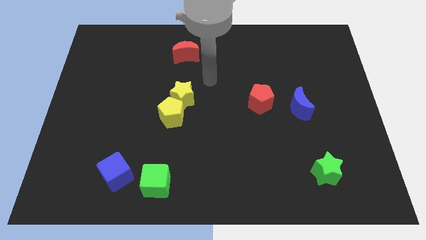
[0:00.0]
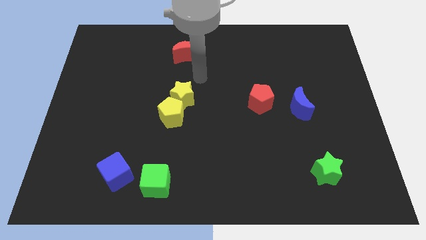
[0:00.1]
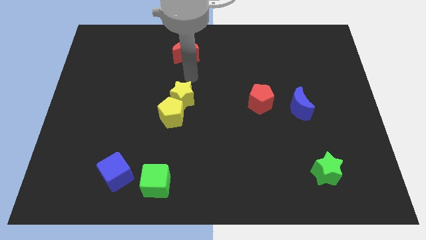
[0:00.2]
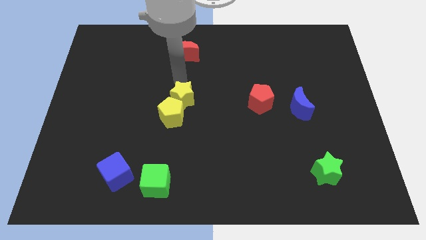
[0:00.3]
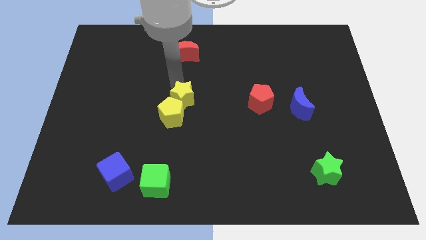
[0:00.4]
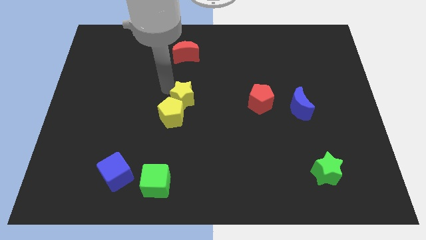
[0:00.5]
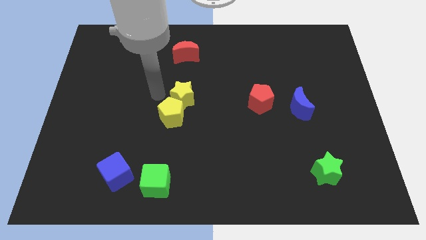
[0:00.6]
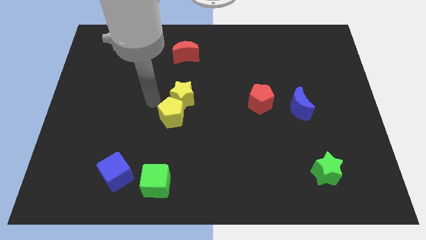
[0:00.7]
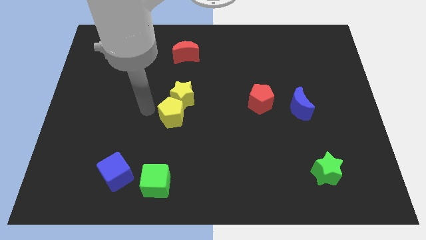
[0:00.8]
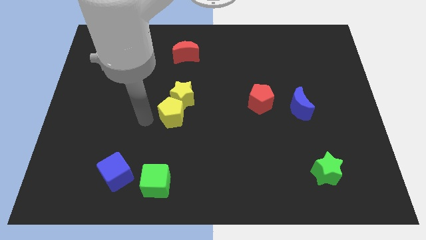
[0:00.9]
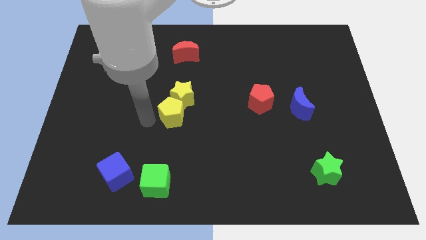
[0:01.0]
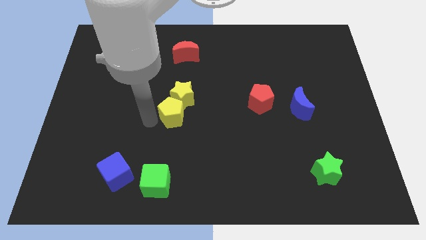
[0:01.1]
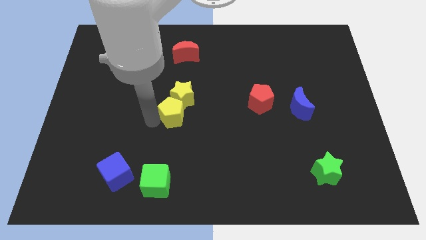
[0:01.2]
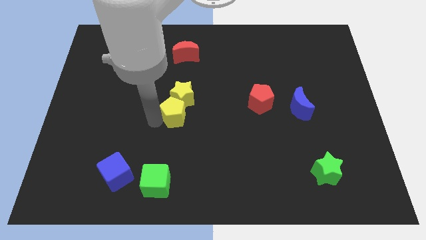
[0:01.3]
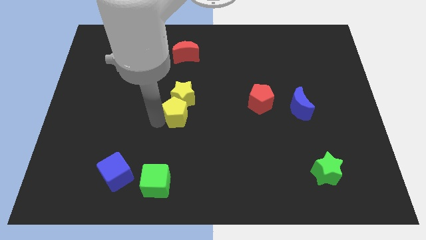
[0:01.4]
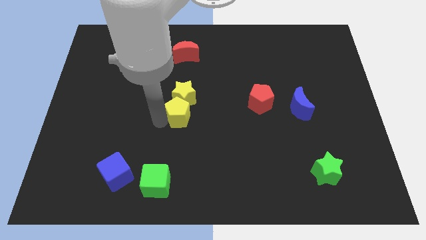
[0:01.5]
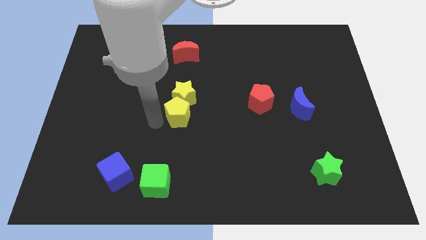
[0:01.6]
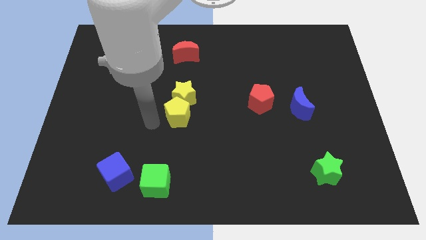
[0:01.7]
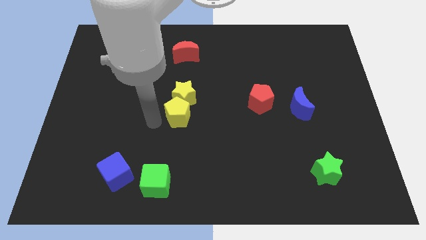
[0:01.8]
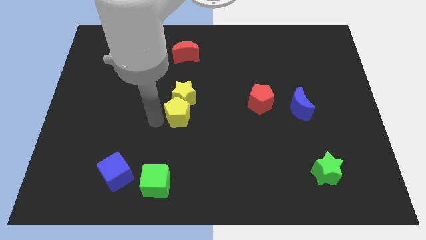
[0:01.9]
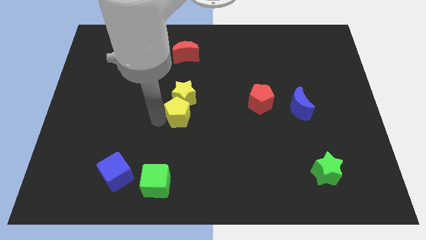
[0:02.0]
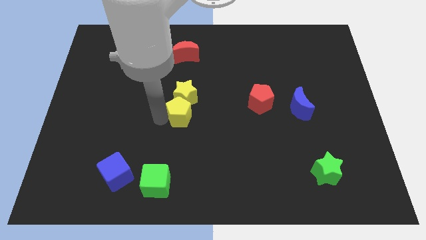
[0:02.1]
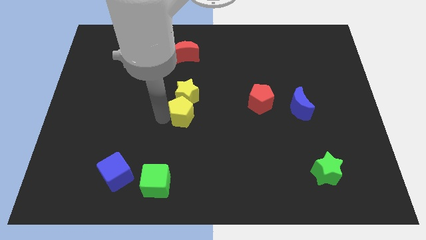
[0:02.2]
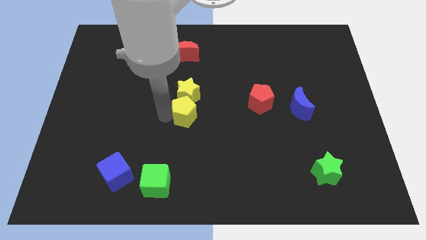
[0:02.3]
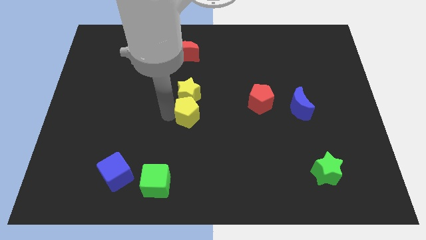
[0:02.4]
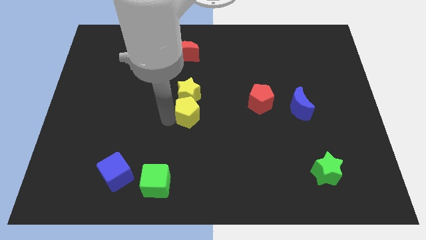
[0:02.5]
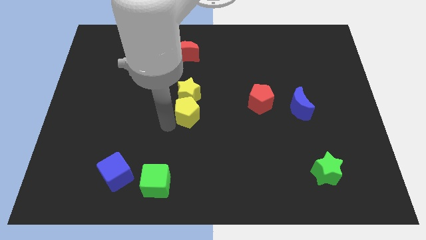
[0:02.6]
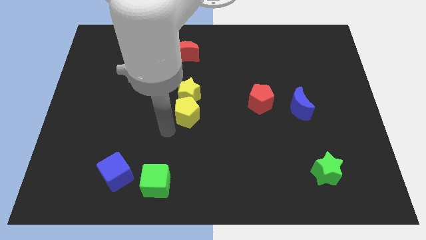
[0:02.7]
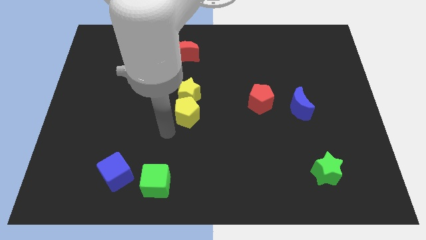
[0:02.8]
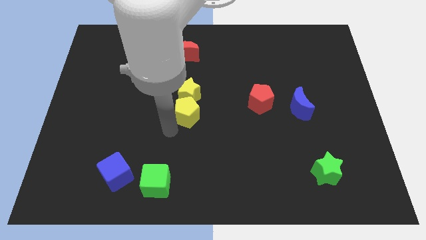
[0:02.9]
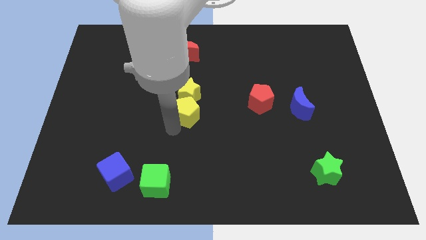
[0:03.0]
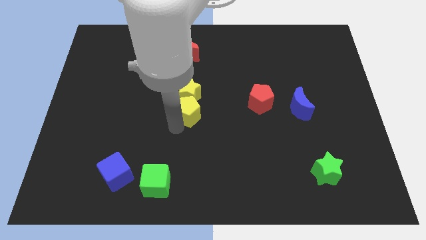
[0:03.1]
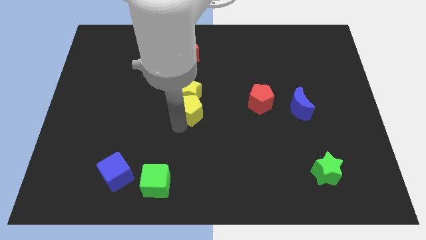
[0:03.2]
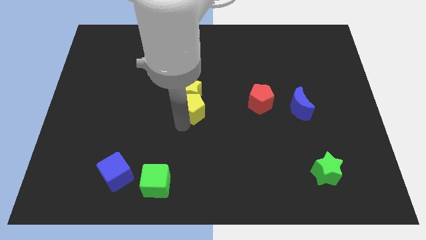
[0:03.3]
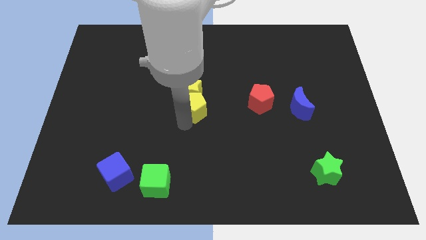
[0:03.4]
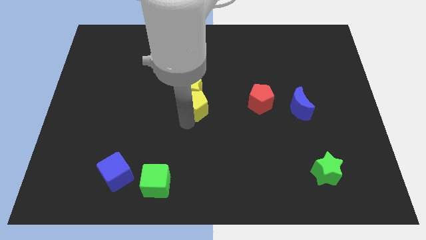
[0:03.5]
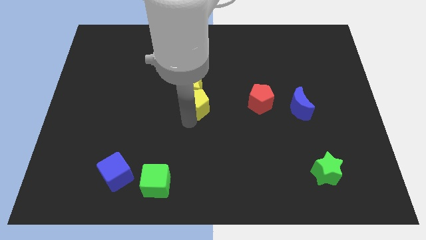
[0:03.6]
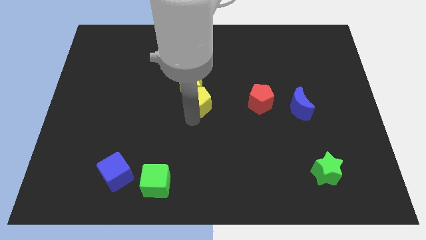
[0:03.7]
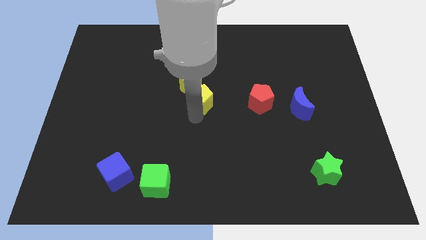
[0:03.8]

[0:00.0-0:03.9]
move the yellow pentagon diagonally up and to the right a bit

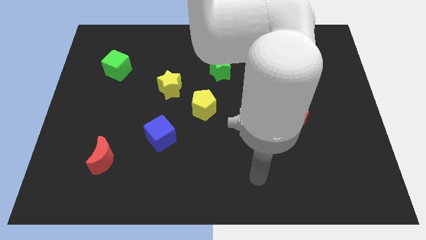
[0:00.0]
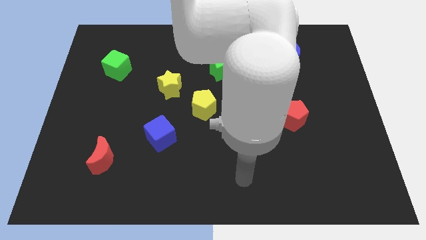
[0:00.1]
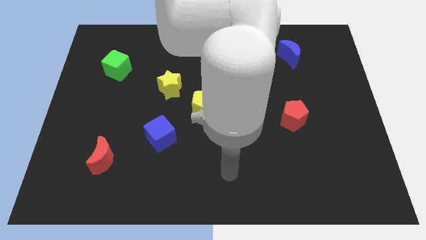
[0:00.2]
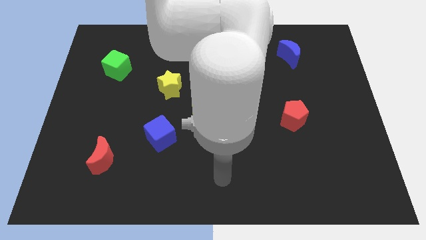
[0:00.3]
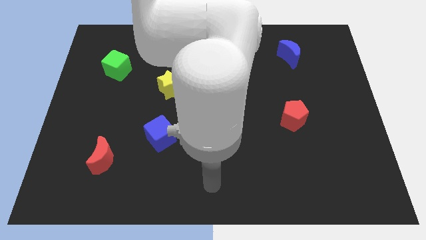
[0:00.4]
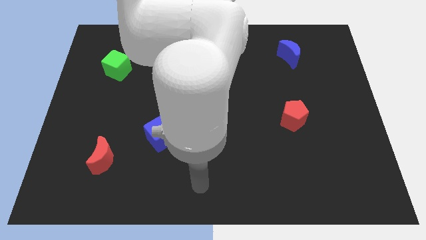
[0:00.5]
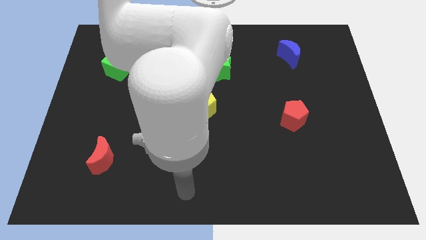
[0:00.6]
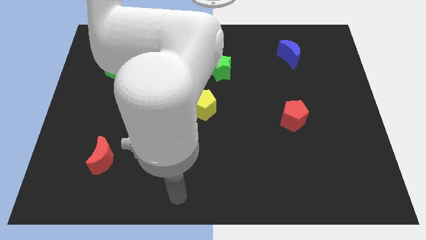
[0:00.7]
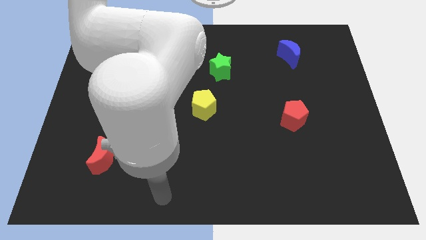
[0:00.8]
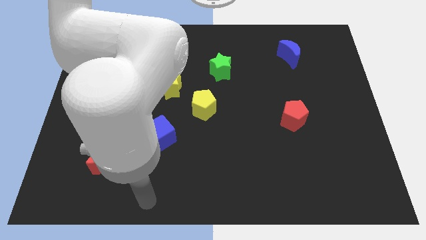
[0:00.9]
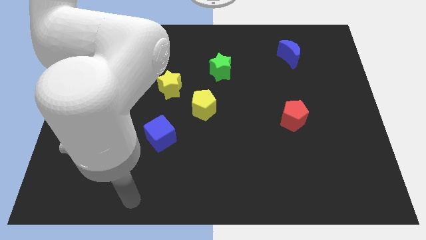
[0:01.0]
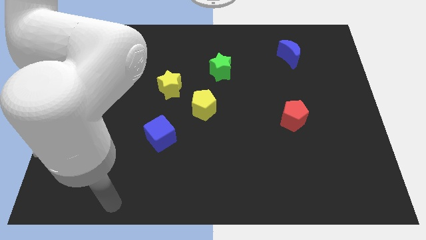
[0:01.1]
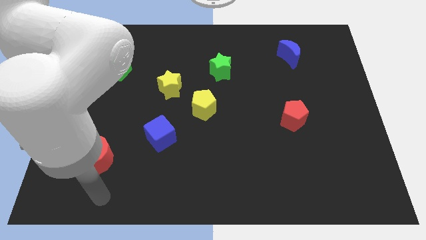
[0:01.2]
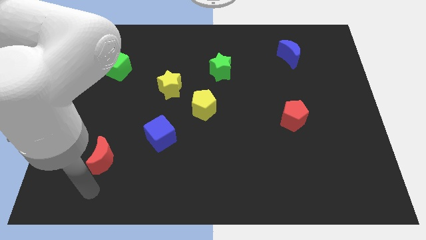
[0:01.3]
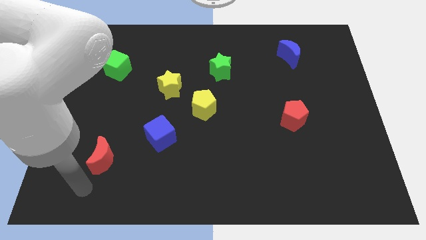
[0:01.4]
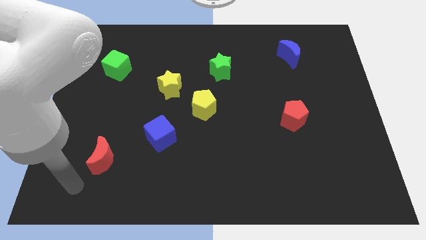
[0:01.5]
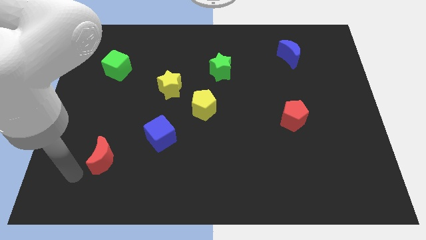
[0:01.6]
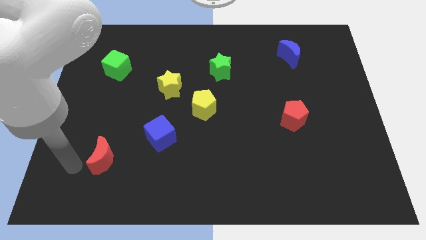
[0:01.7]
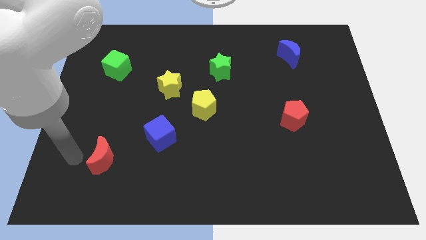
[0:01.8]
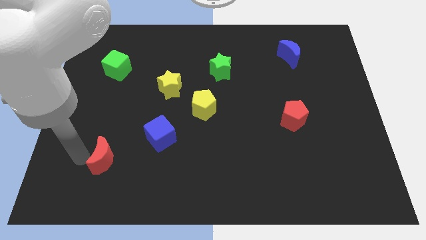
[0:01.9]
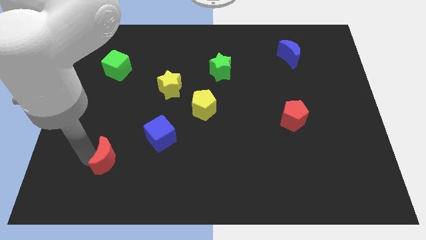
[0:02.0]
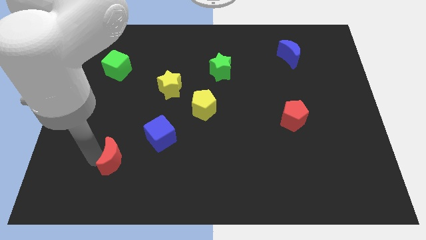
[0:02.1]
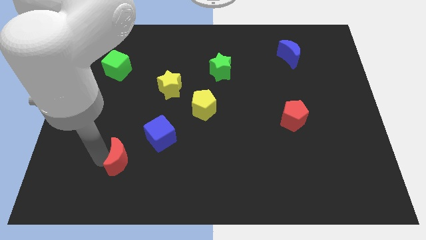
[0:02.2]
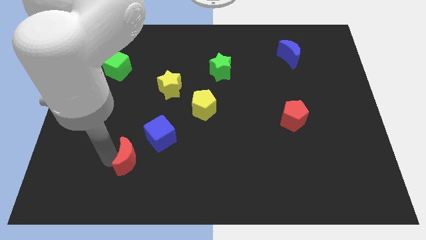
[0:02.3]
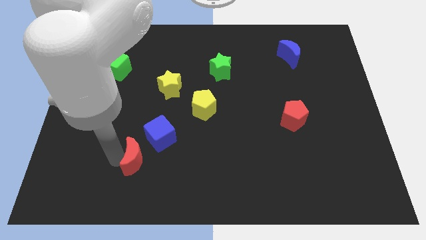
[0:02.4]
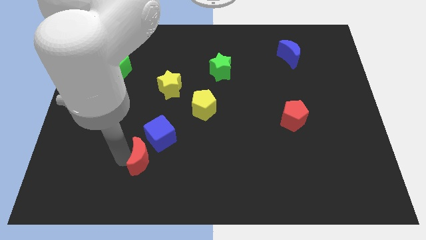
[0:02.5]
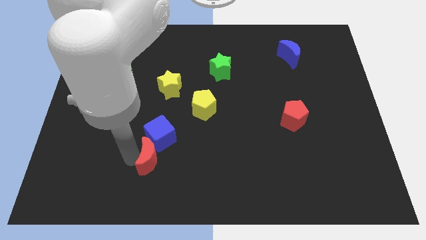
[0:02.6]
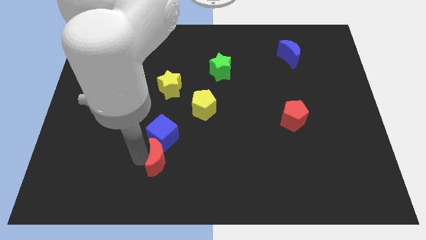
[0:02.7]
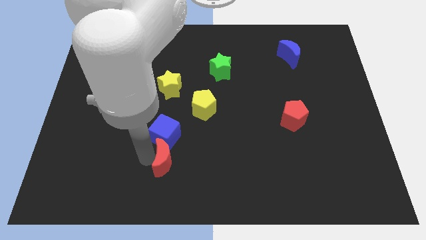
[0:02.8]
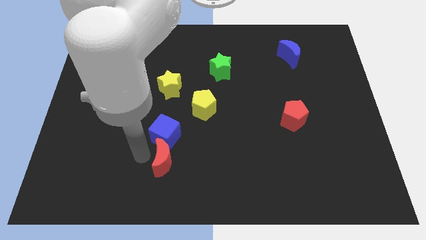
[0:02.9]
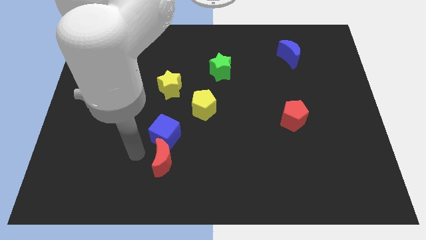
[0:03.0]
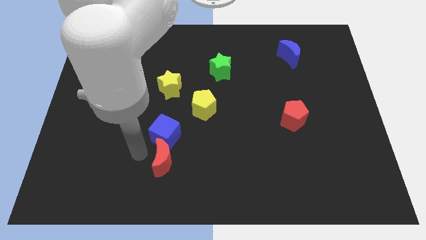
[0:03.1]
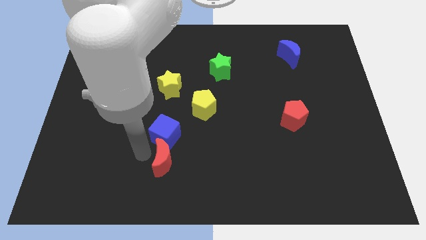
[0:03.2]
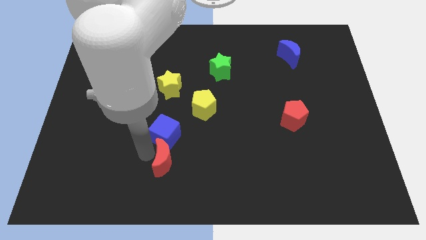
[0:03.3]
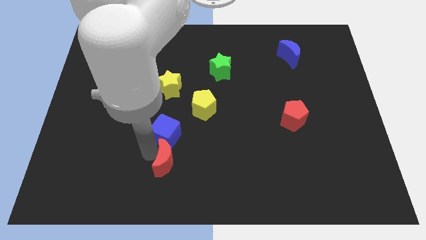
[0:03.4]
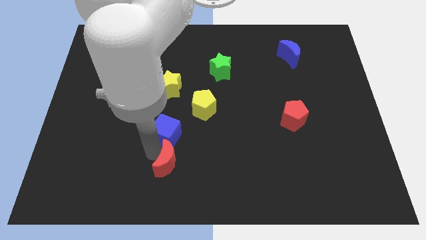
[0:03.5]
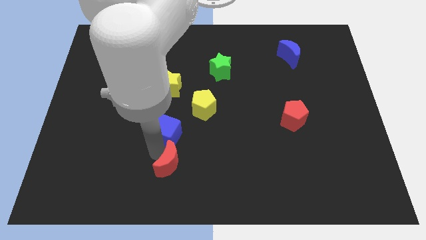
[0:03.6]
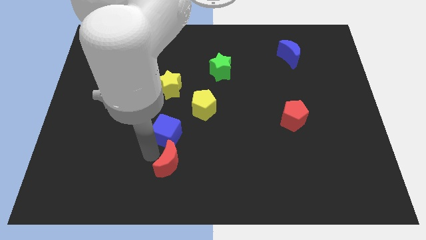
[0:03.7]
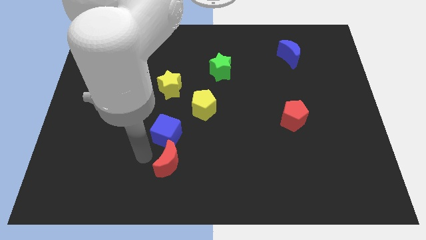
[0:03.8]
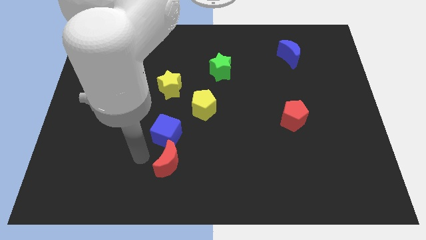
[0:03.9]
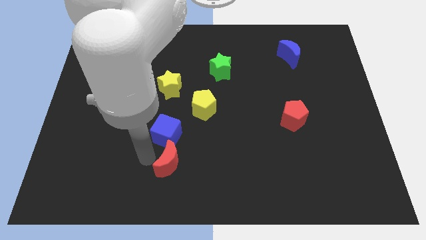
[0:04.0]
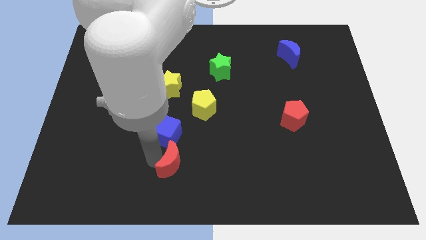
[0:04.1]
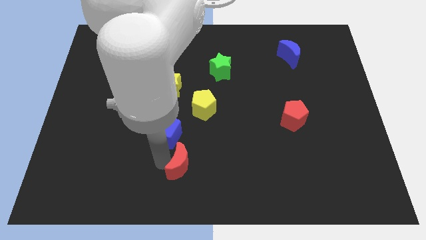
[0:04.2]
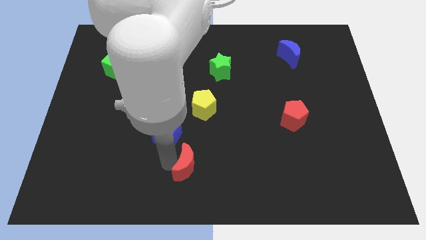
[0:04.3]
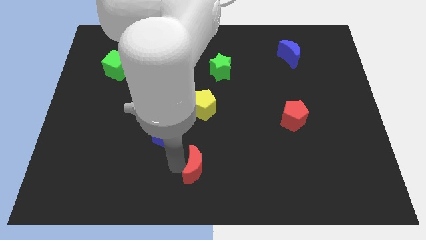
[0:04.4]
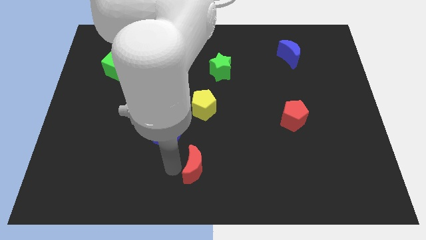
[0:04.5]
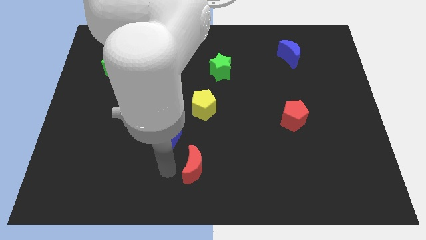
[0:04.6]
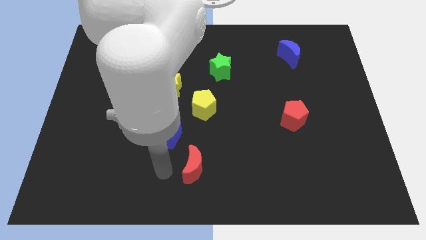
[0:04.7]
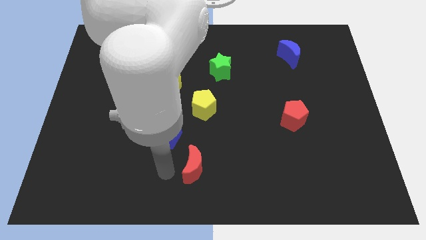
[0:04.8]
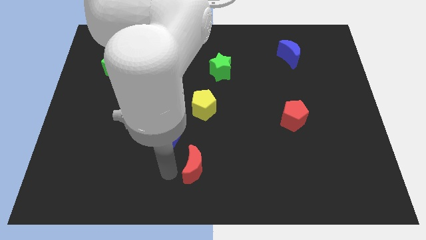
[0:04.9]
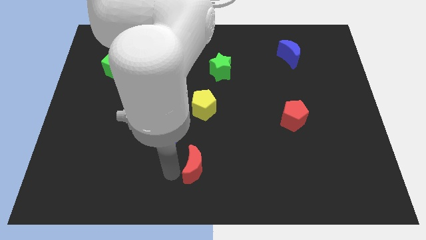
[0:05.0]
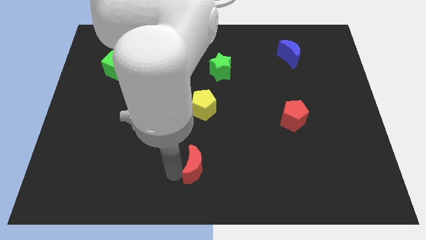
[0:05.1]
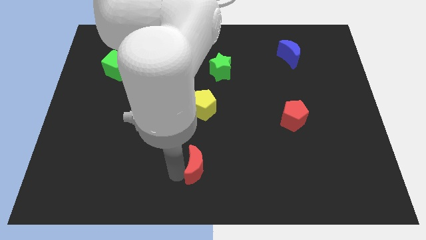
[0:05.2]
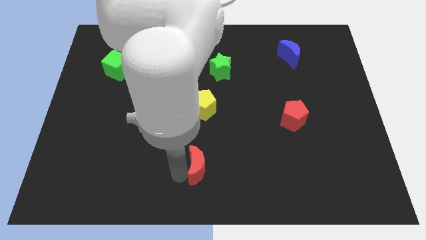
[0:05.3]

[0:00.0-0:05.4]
push the red moon to the right
